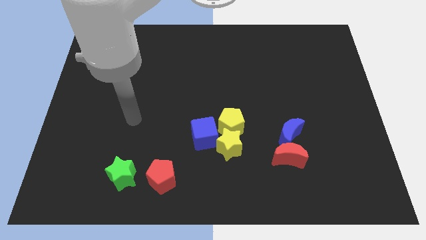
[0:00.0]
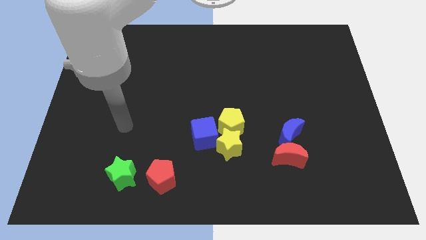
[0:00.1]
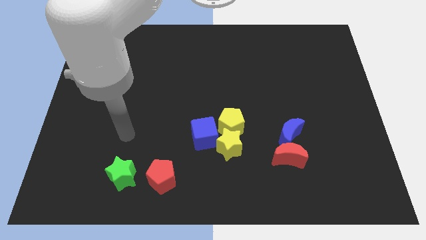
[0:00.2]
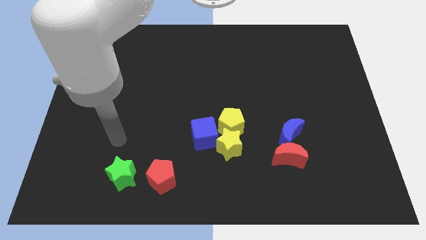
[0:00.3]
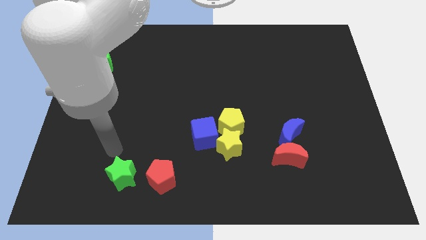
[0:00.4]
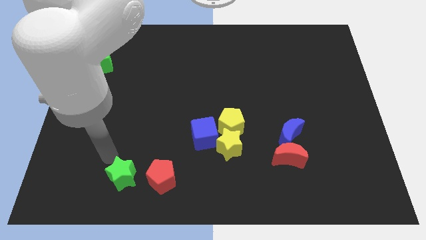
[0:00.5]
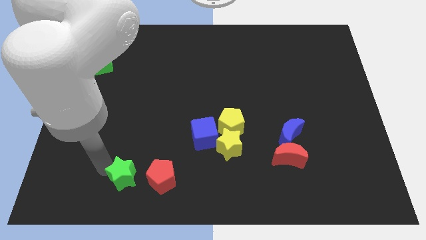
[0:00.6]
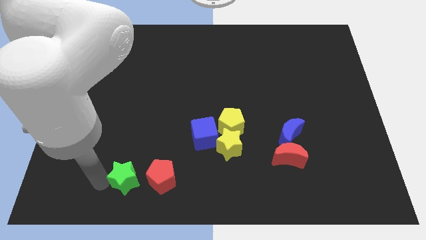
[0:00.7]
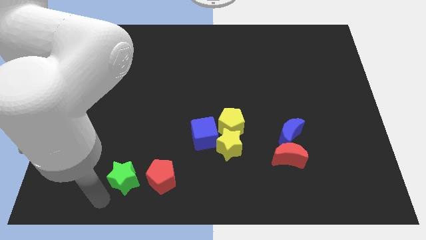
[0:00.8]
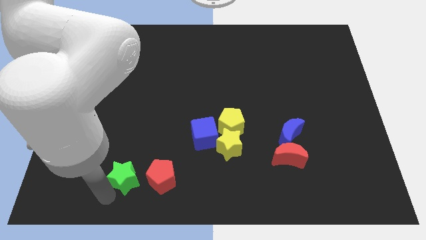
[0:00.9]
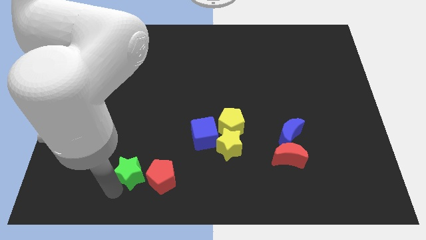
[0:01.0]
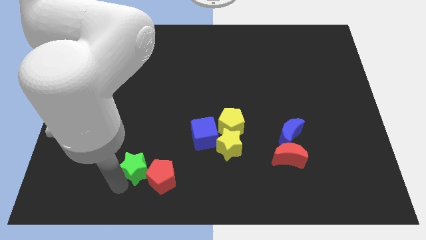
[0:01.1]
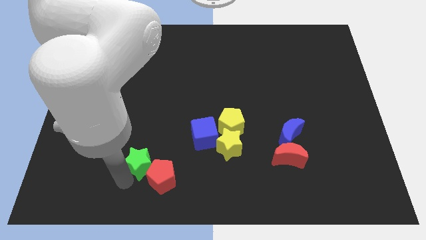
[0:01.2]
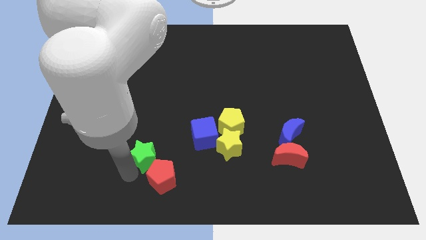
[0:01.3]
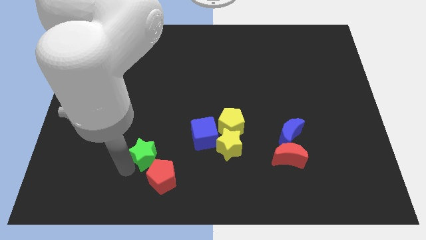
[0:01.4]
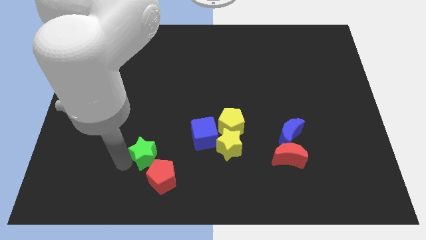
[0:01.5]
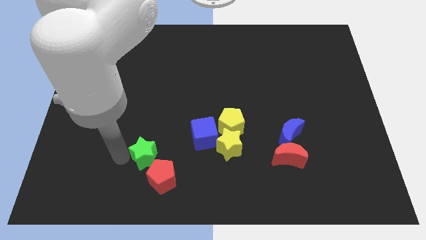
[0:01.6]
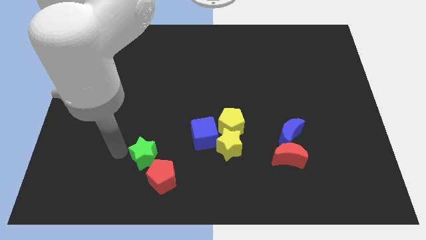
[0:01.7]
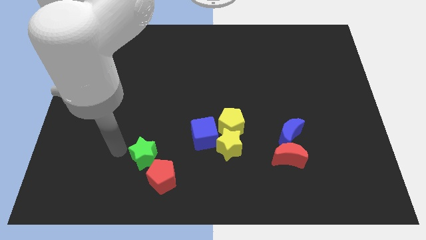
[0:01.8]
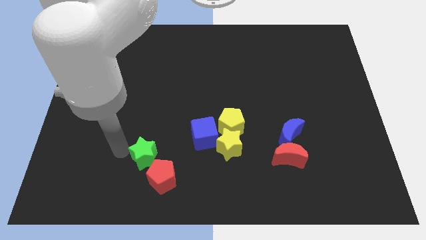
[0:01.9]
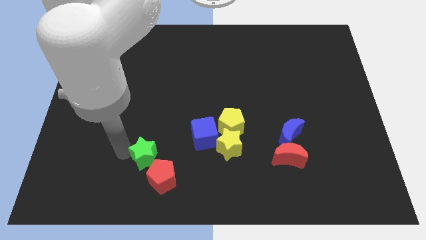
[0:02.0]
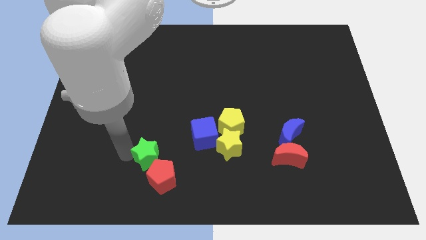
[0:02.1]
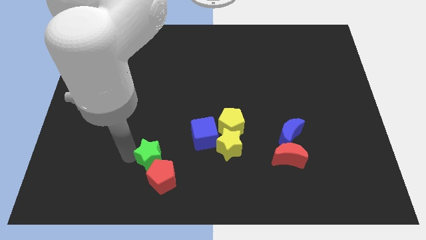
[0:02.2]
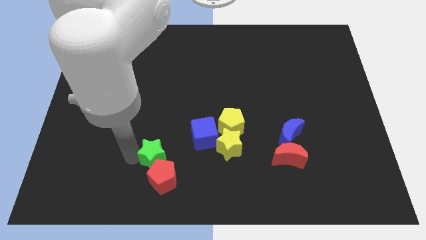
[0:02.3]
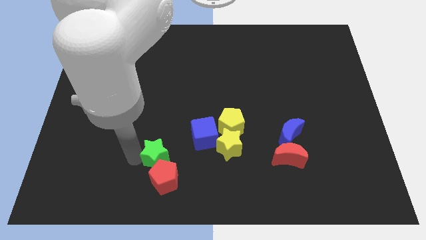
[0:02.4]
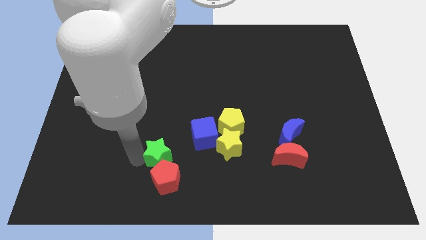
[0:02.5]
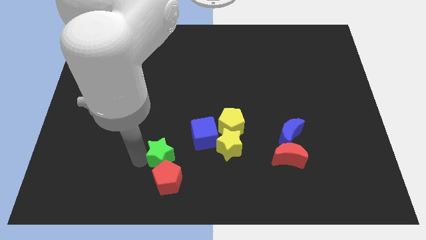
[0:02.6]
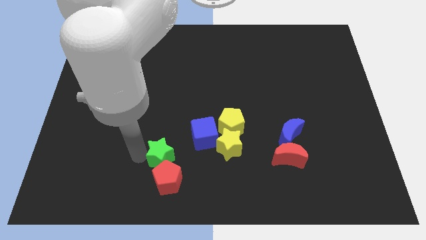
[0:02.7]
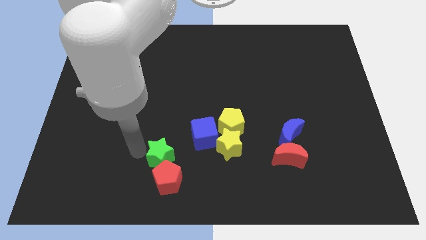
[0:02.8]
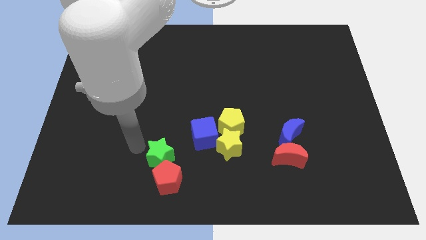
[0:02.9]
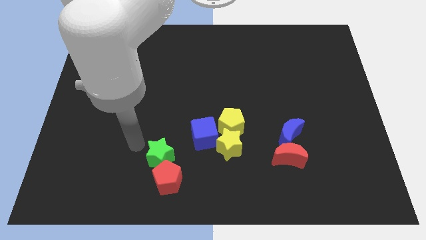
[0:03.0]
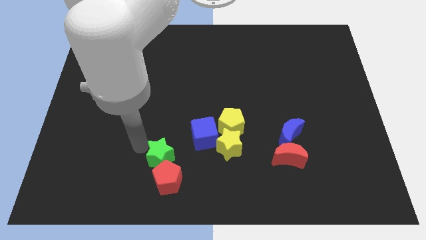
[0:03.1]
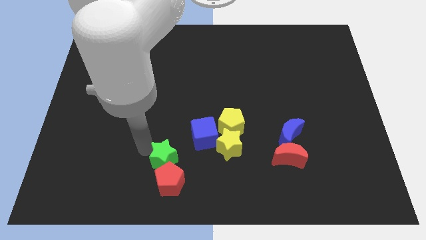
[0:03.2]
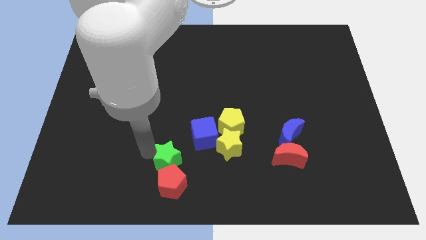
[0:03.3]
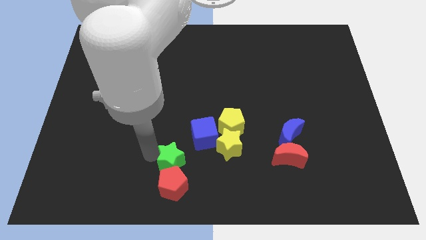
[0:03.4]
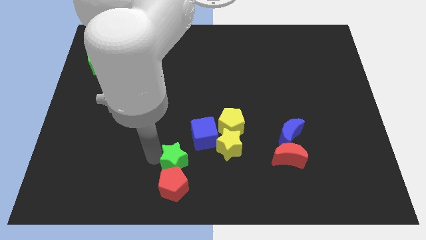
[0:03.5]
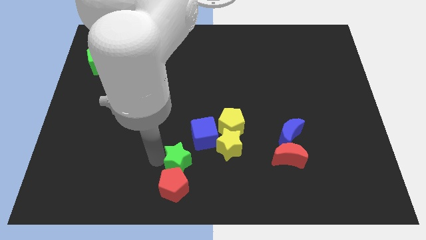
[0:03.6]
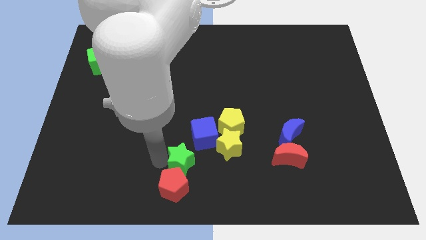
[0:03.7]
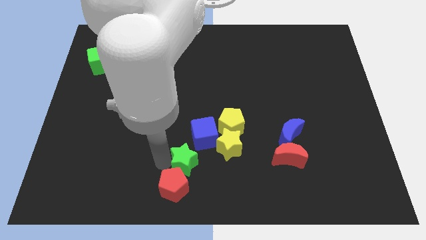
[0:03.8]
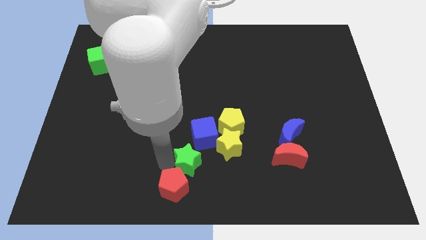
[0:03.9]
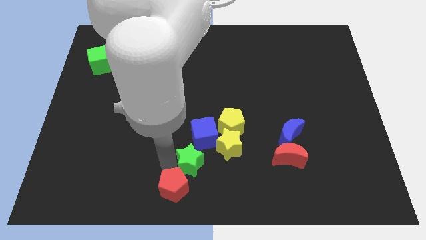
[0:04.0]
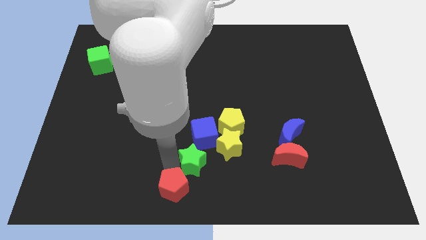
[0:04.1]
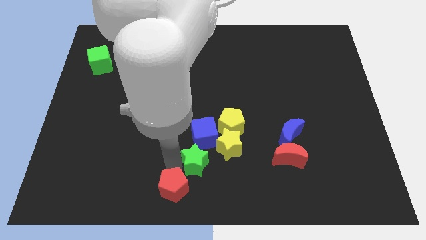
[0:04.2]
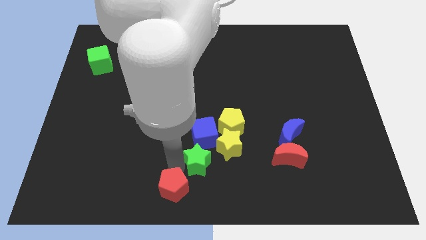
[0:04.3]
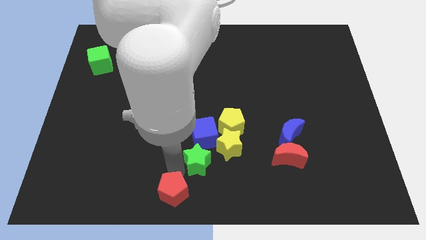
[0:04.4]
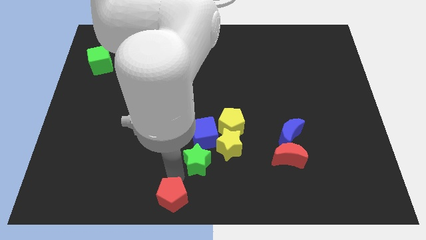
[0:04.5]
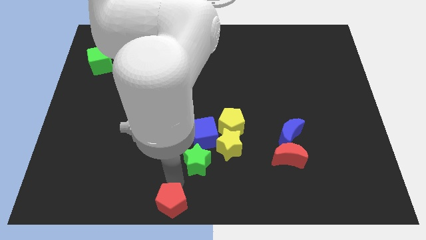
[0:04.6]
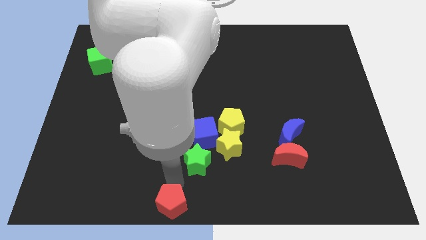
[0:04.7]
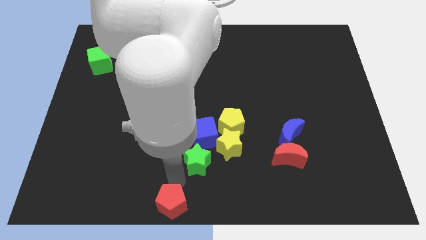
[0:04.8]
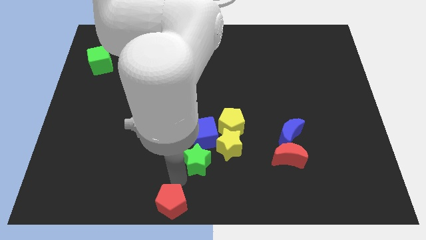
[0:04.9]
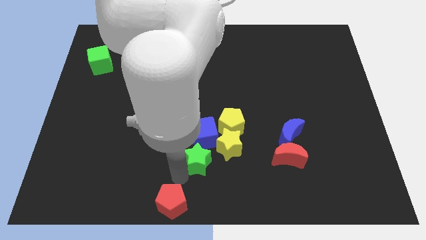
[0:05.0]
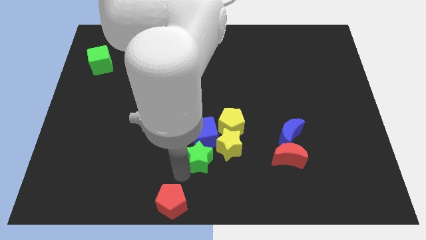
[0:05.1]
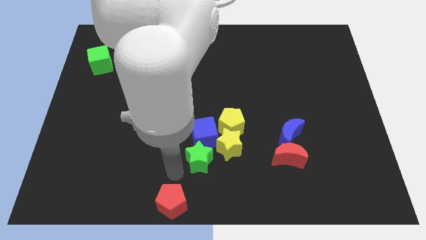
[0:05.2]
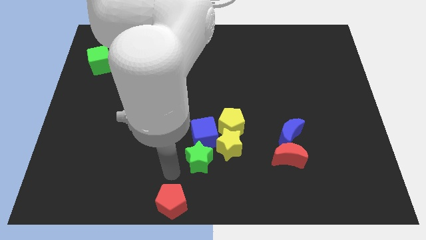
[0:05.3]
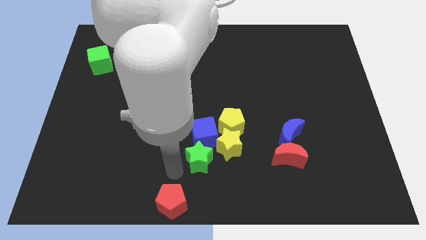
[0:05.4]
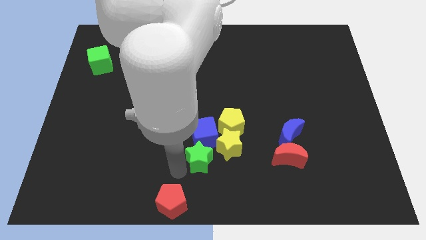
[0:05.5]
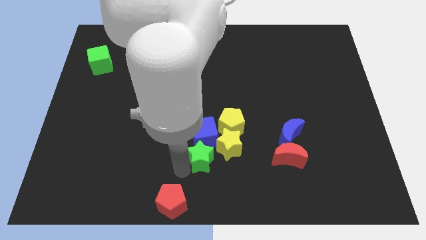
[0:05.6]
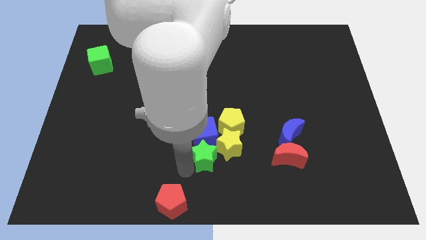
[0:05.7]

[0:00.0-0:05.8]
put the green star to the yellow star

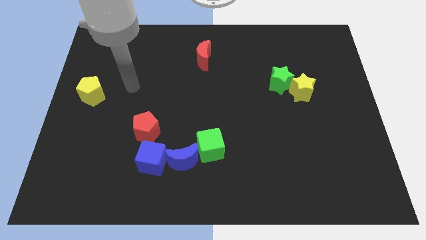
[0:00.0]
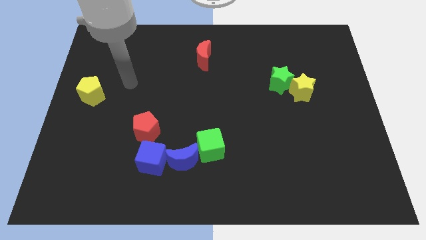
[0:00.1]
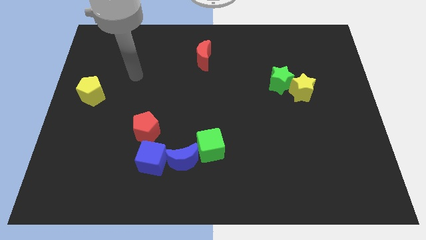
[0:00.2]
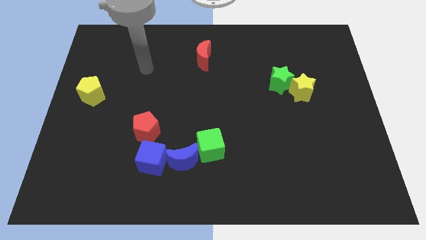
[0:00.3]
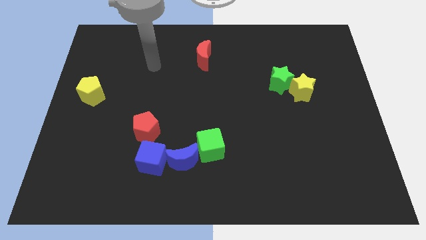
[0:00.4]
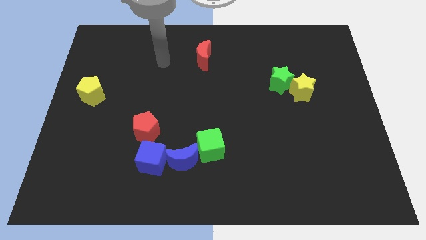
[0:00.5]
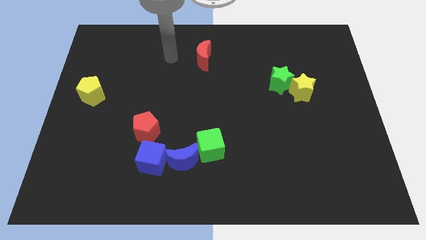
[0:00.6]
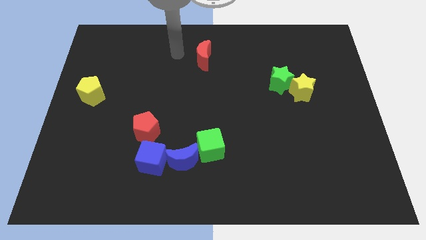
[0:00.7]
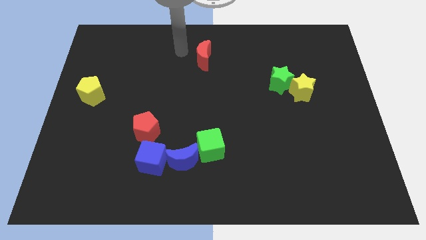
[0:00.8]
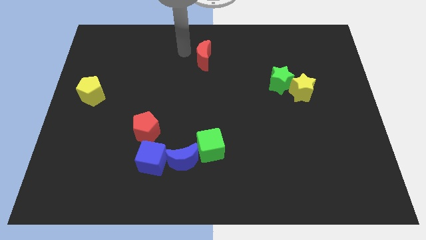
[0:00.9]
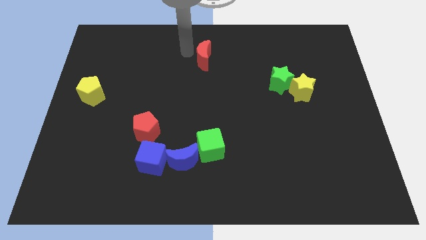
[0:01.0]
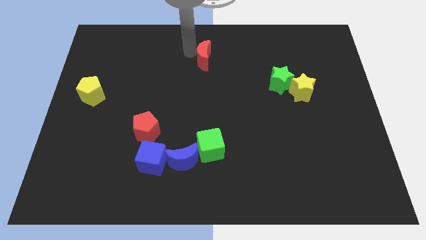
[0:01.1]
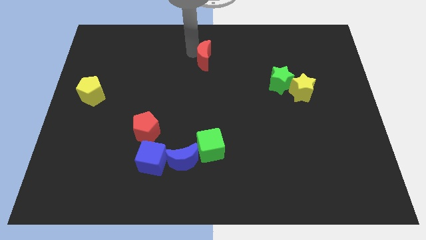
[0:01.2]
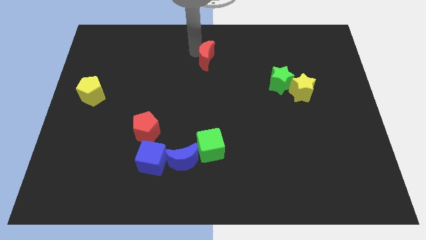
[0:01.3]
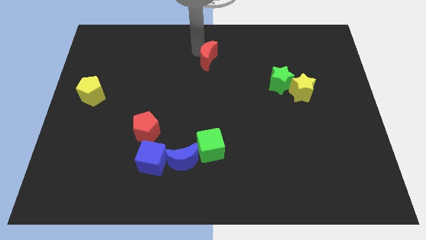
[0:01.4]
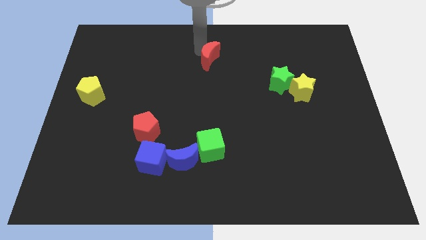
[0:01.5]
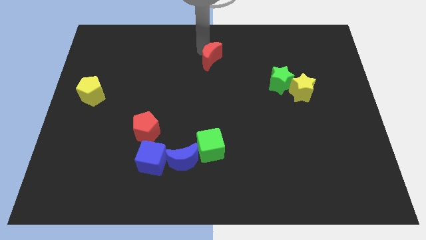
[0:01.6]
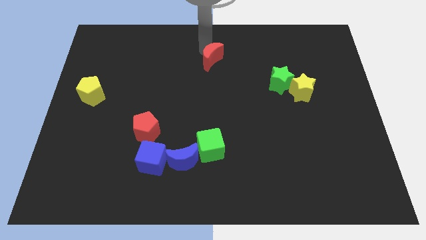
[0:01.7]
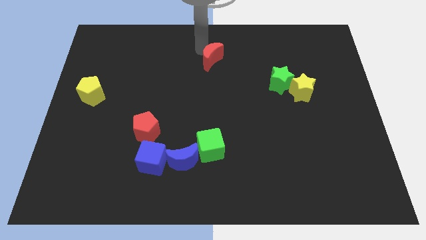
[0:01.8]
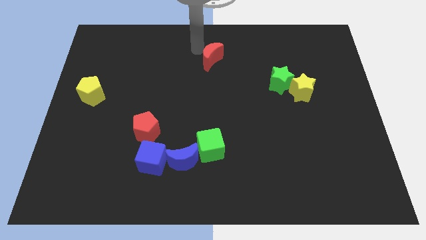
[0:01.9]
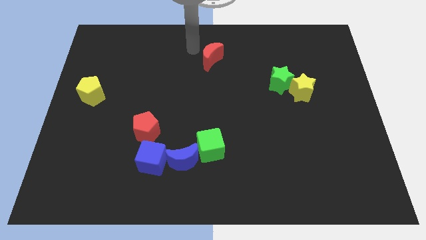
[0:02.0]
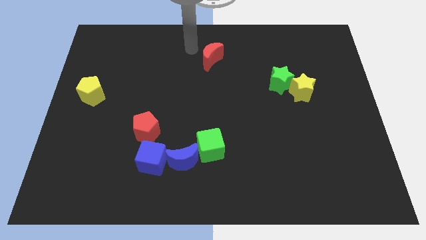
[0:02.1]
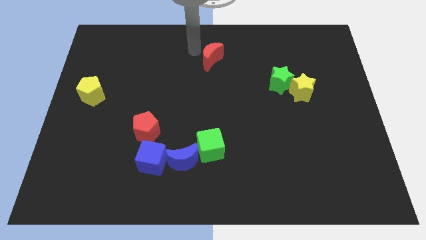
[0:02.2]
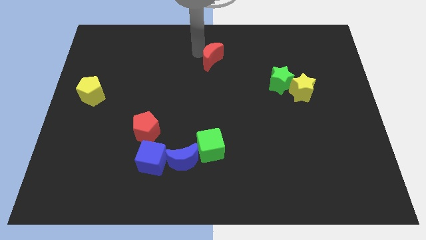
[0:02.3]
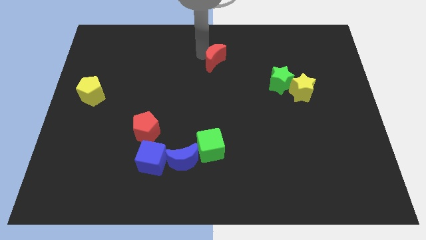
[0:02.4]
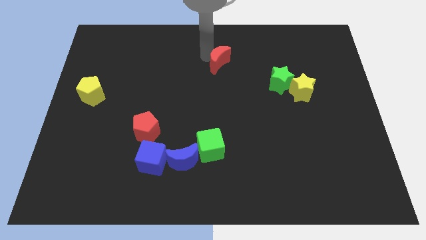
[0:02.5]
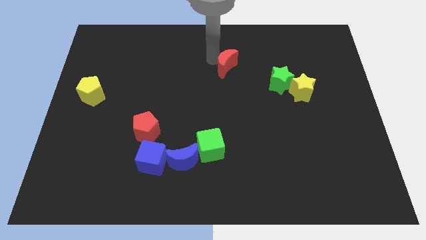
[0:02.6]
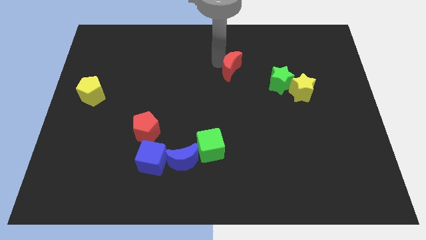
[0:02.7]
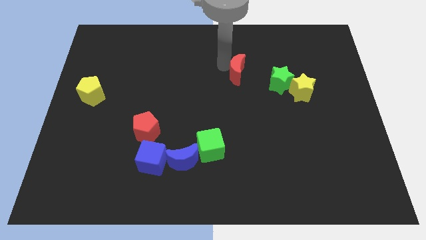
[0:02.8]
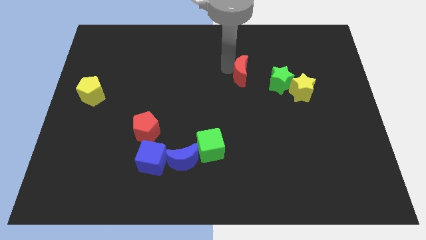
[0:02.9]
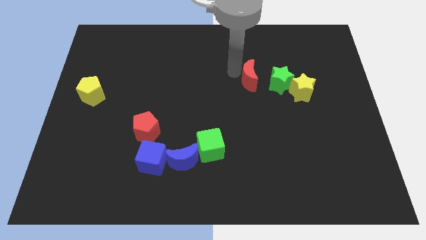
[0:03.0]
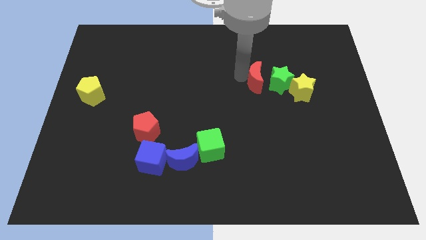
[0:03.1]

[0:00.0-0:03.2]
push the red moon to the green star
